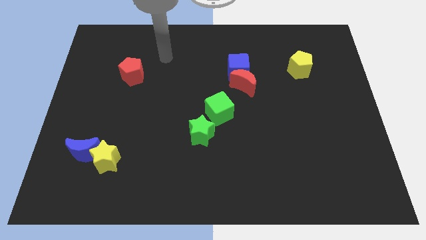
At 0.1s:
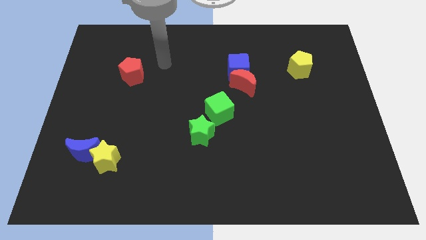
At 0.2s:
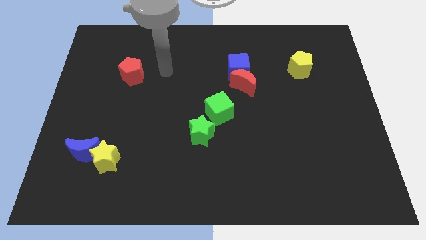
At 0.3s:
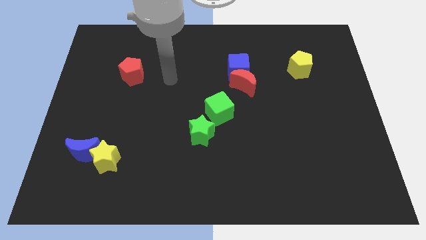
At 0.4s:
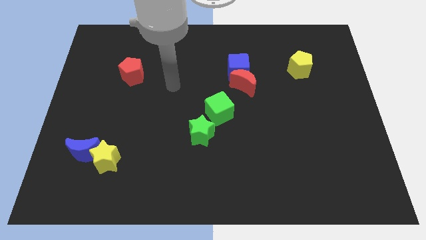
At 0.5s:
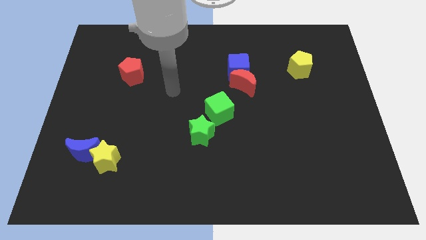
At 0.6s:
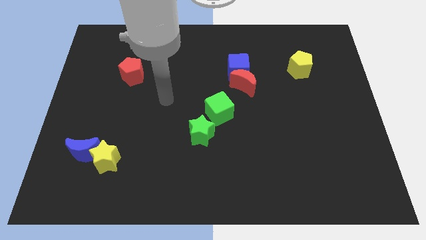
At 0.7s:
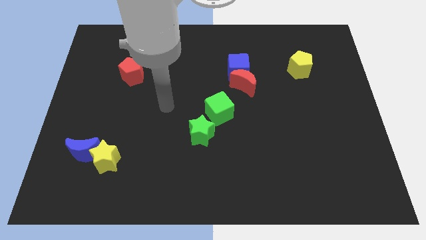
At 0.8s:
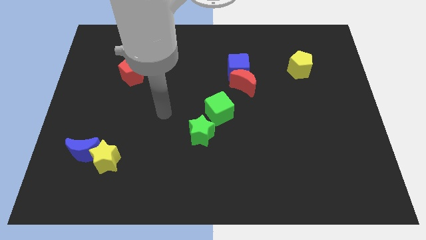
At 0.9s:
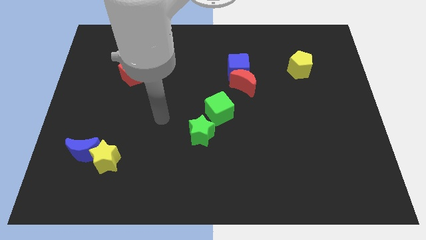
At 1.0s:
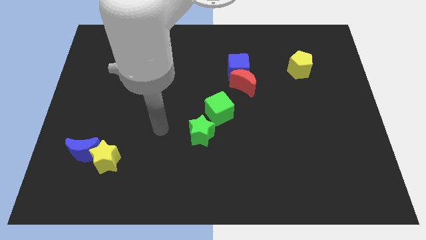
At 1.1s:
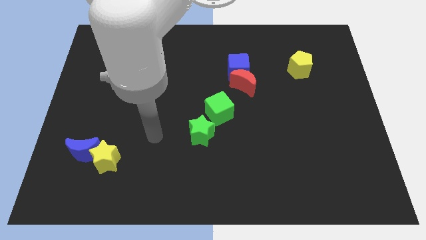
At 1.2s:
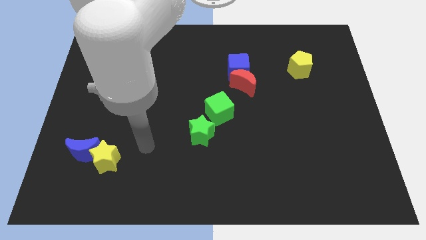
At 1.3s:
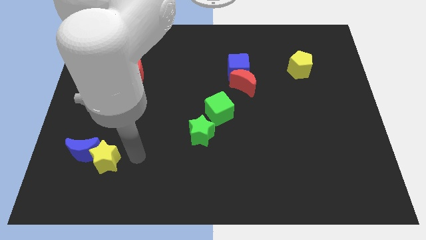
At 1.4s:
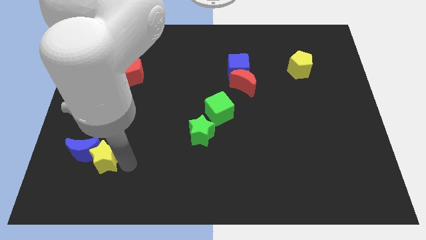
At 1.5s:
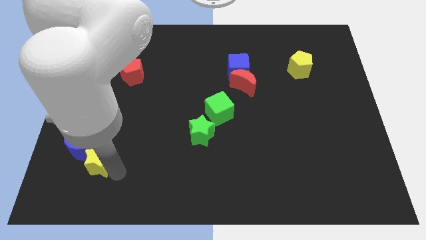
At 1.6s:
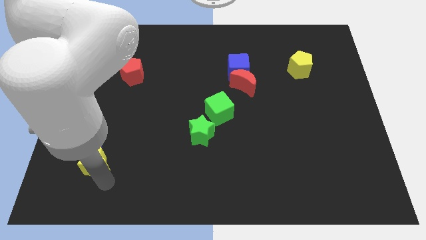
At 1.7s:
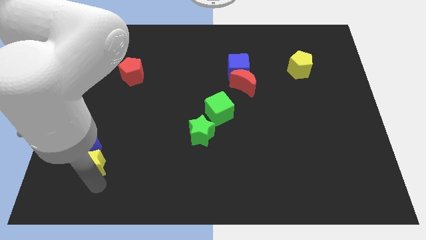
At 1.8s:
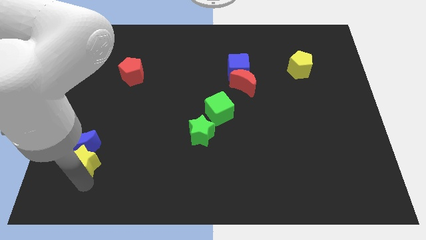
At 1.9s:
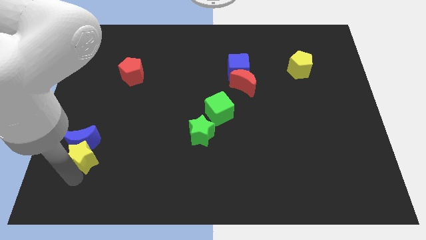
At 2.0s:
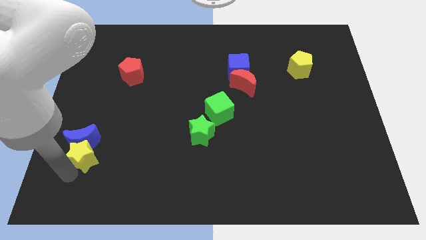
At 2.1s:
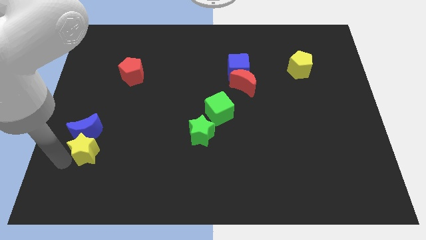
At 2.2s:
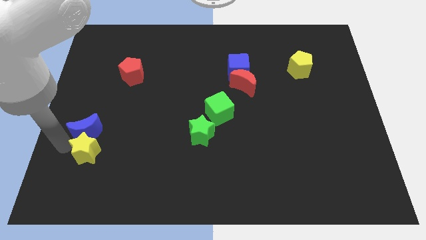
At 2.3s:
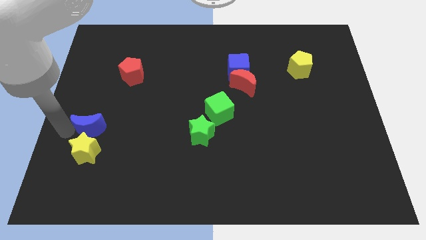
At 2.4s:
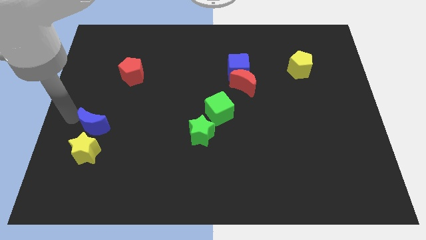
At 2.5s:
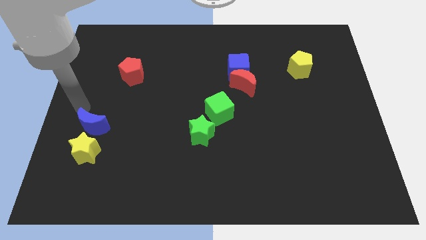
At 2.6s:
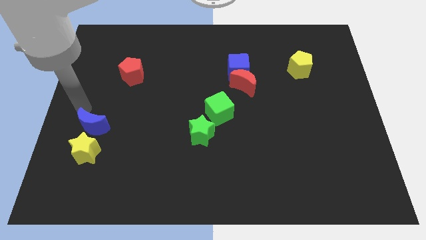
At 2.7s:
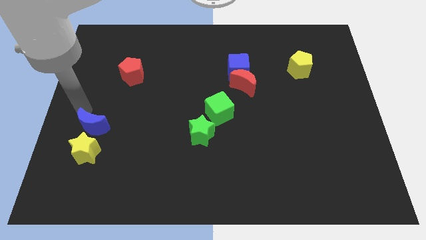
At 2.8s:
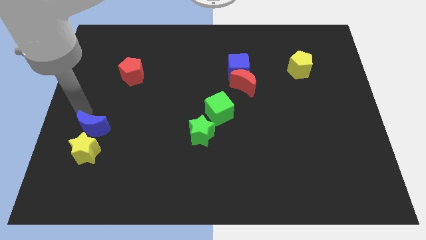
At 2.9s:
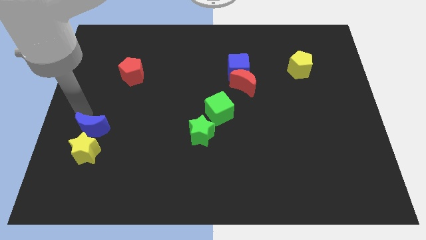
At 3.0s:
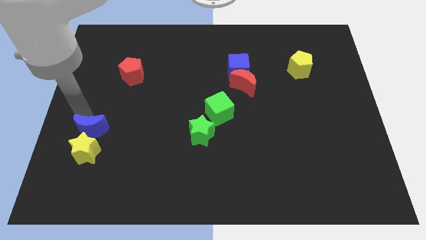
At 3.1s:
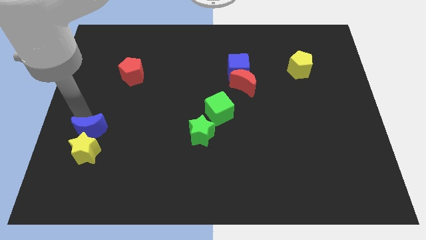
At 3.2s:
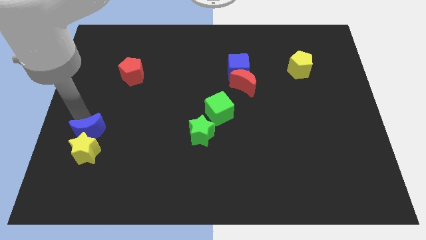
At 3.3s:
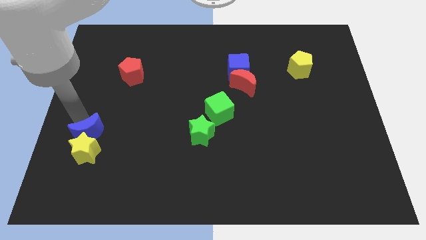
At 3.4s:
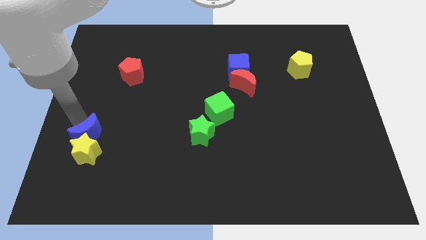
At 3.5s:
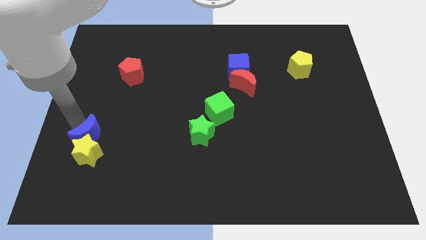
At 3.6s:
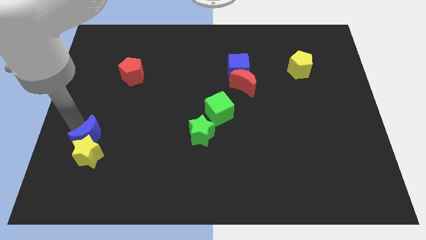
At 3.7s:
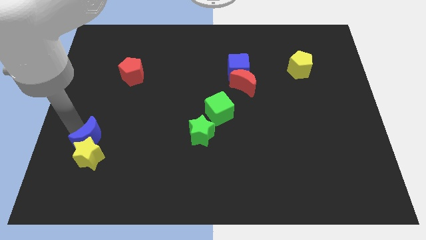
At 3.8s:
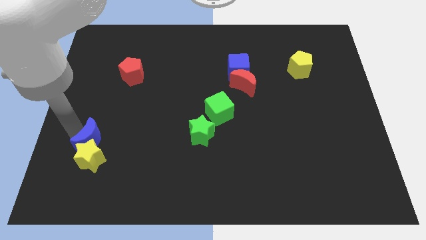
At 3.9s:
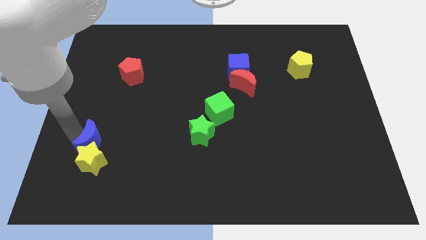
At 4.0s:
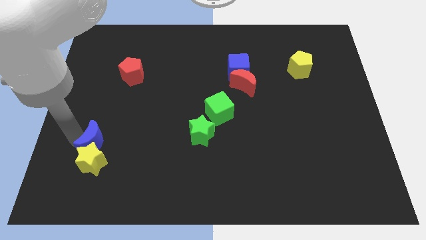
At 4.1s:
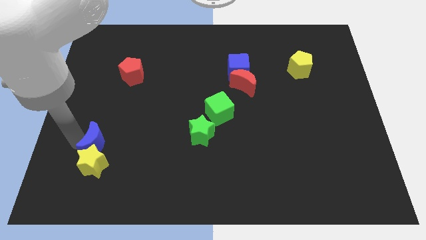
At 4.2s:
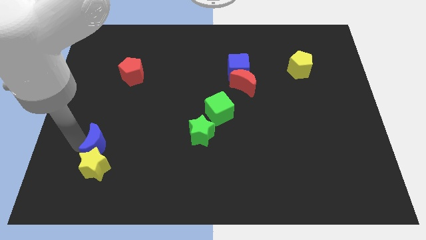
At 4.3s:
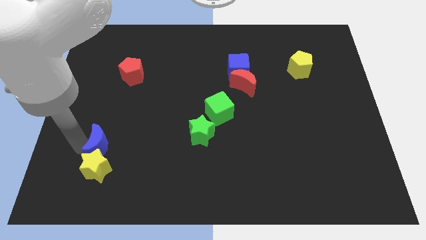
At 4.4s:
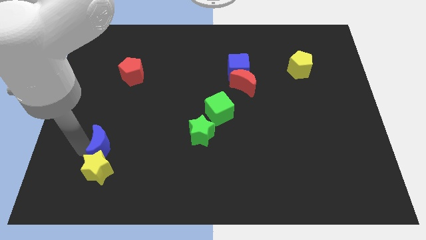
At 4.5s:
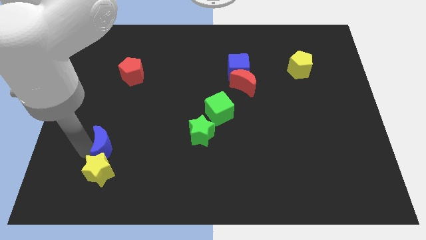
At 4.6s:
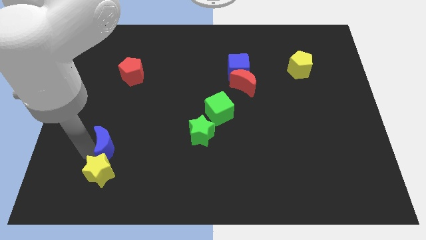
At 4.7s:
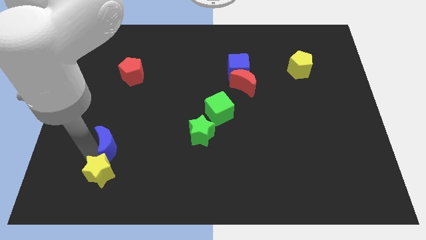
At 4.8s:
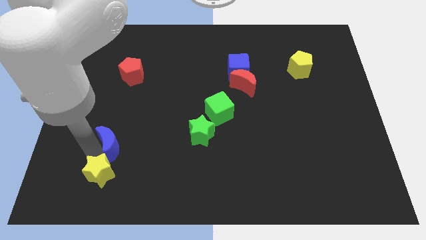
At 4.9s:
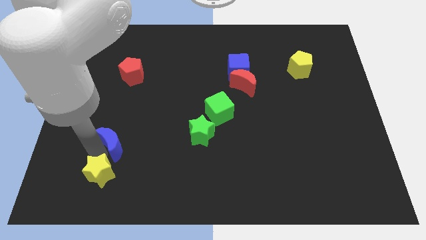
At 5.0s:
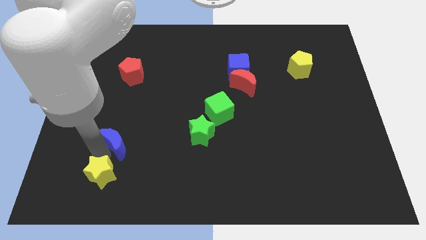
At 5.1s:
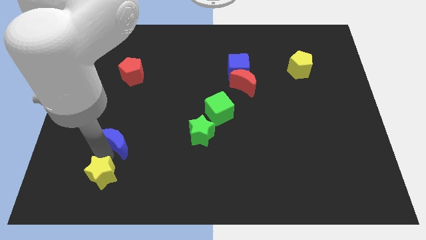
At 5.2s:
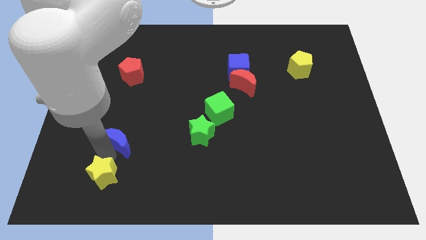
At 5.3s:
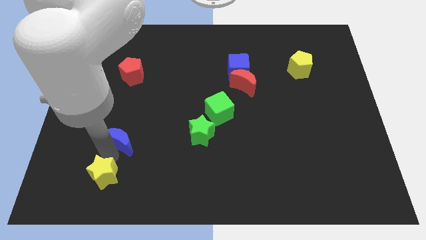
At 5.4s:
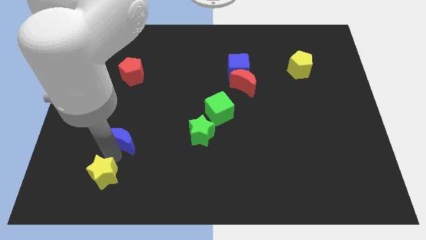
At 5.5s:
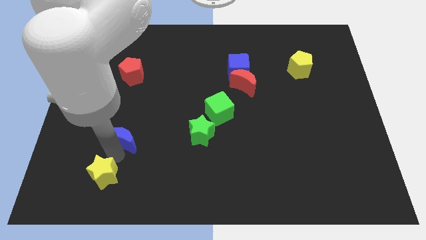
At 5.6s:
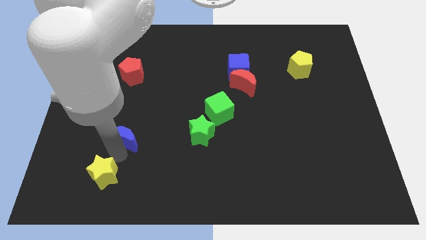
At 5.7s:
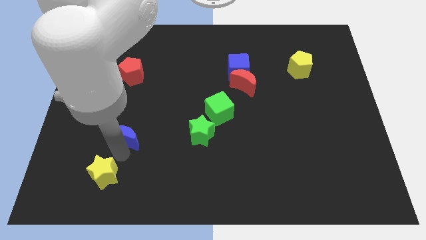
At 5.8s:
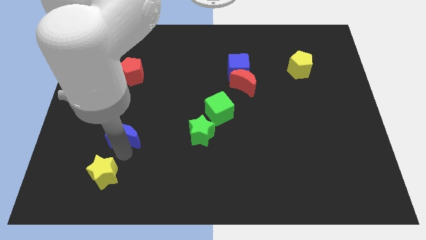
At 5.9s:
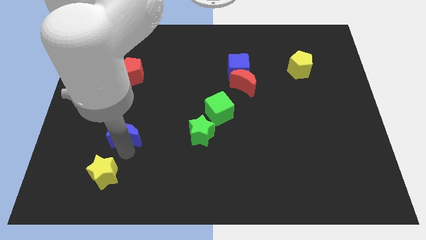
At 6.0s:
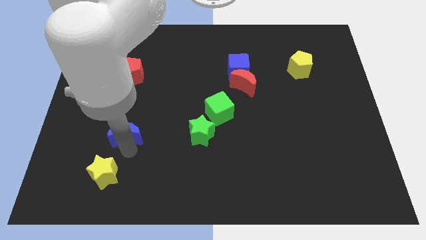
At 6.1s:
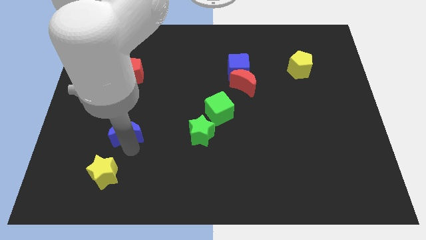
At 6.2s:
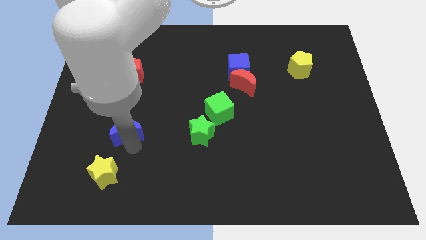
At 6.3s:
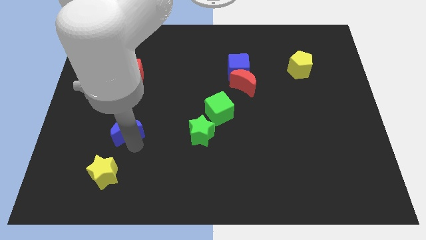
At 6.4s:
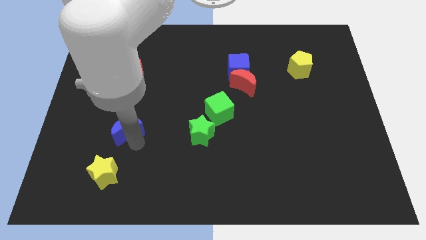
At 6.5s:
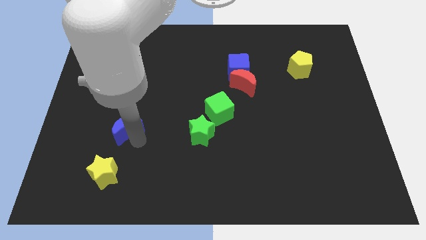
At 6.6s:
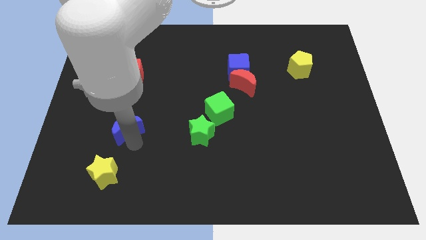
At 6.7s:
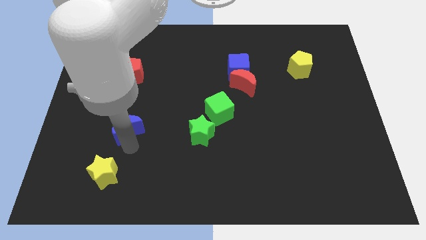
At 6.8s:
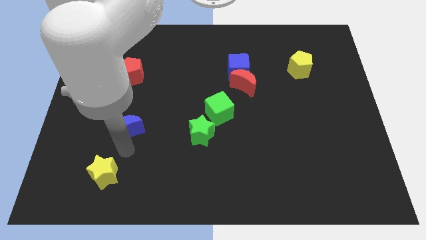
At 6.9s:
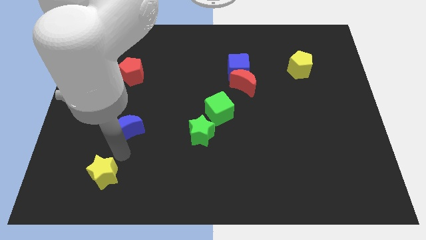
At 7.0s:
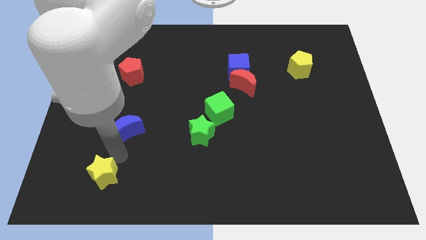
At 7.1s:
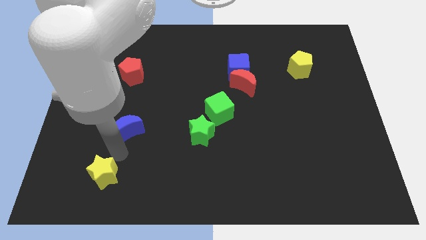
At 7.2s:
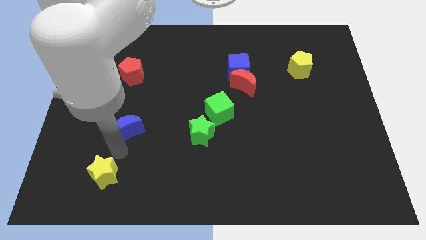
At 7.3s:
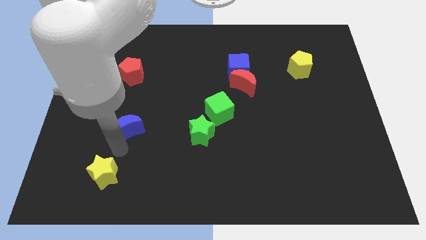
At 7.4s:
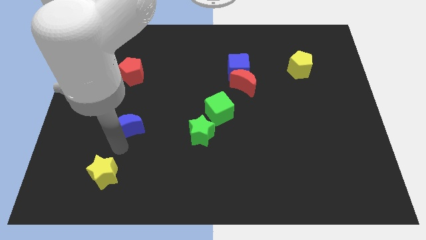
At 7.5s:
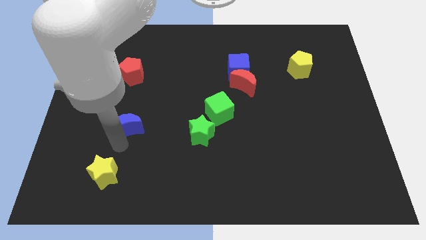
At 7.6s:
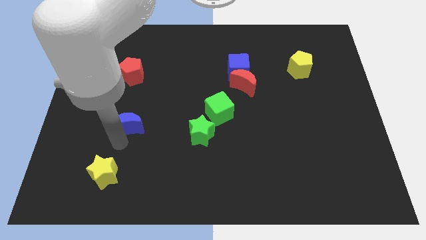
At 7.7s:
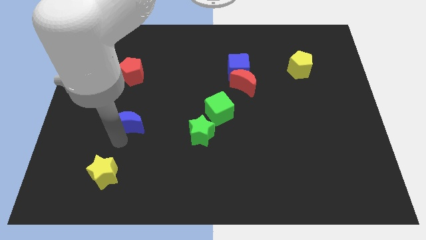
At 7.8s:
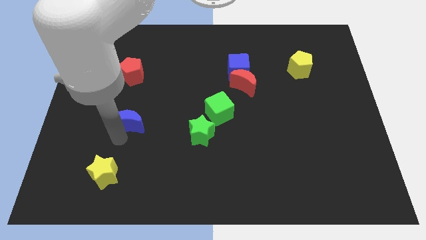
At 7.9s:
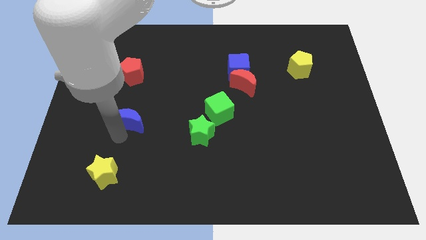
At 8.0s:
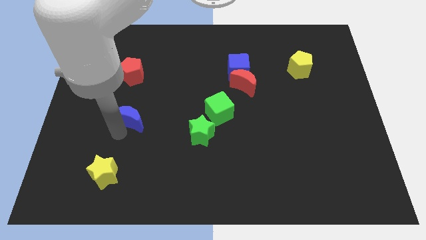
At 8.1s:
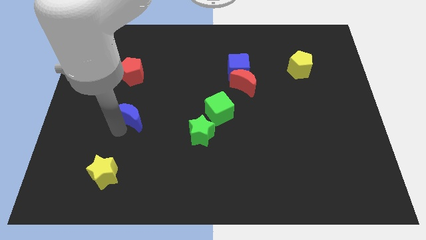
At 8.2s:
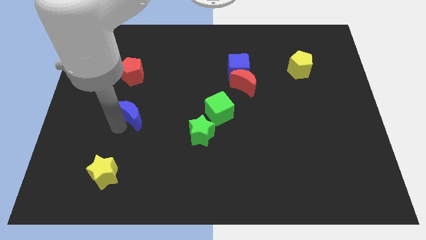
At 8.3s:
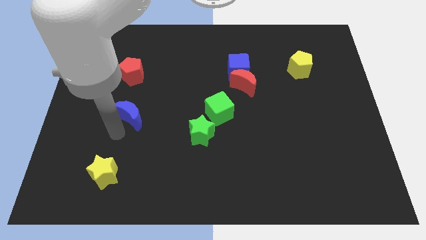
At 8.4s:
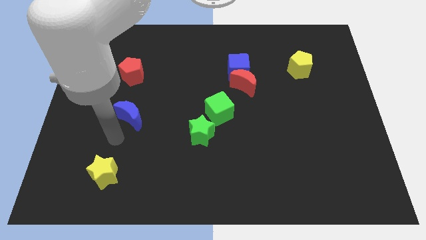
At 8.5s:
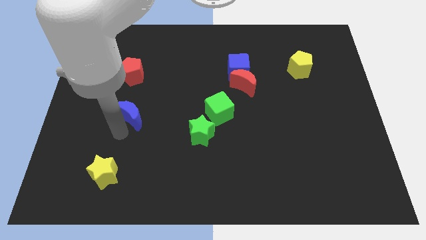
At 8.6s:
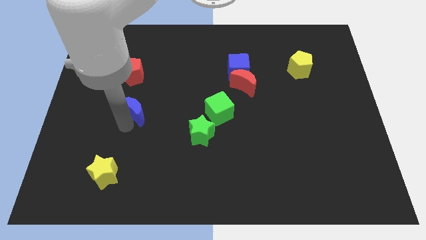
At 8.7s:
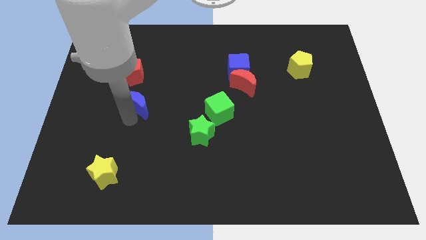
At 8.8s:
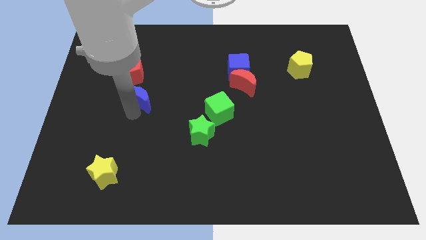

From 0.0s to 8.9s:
move the blue moon to the bottom right of the red pentagon
